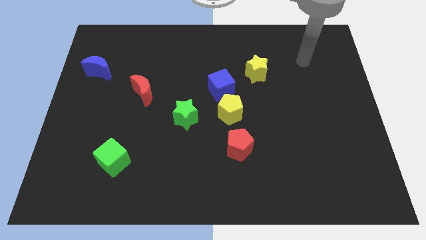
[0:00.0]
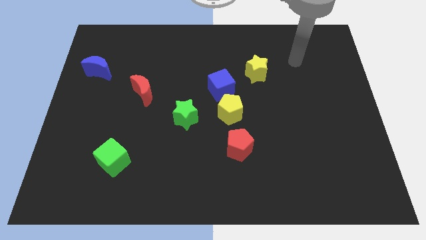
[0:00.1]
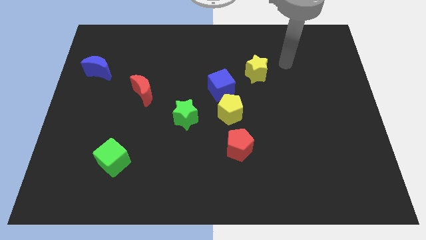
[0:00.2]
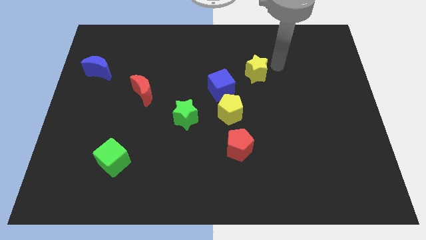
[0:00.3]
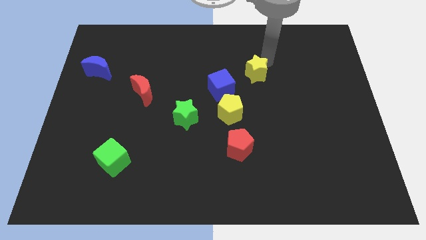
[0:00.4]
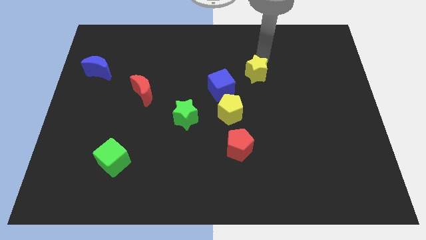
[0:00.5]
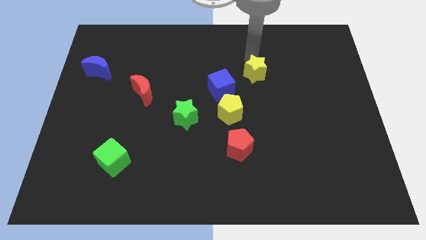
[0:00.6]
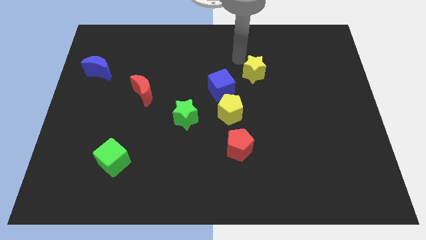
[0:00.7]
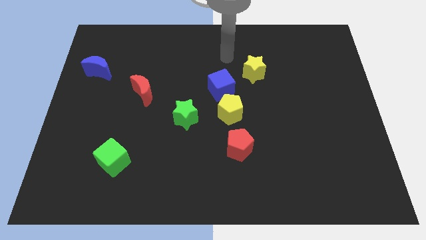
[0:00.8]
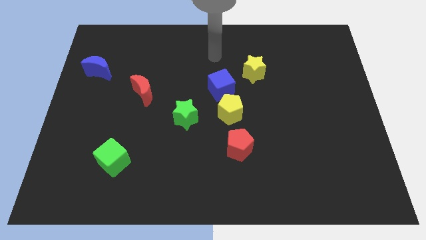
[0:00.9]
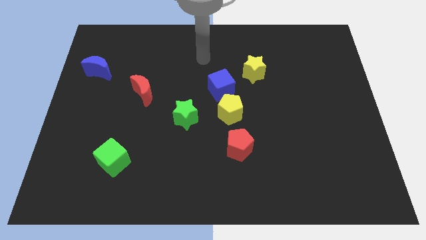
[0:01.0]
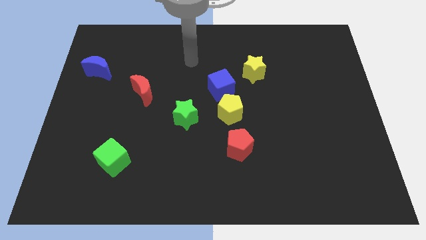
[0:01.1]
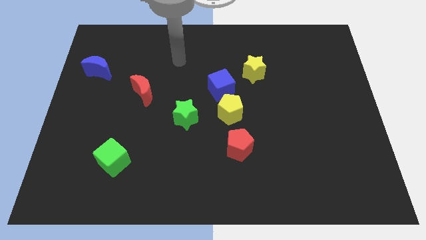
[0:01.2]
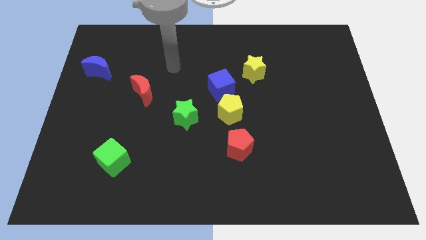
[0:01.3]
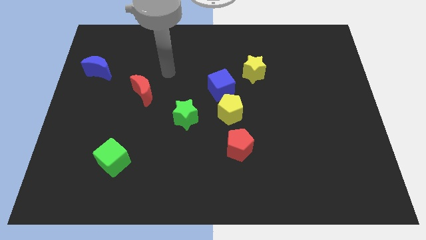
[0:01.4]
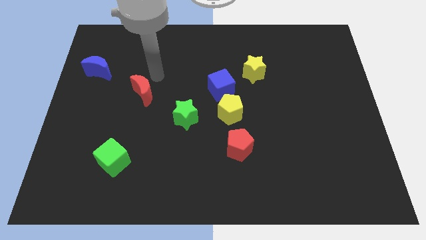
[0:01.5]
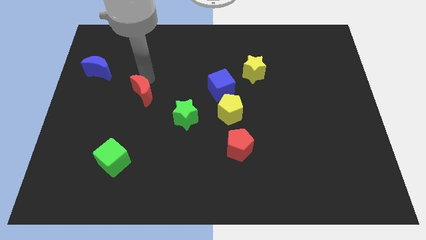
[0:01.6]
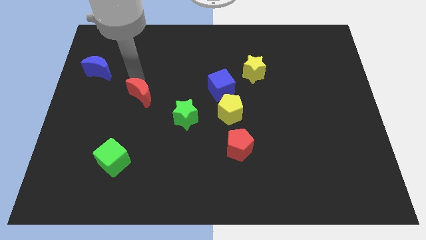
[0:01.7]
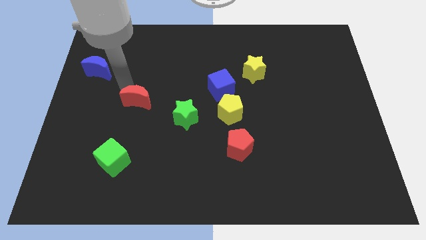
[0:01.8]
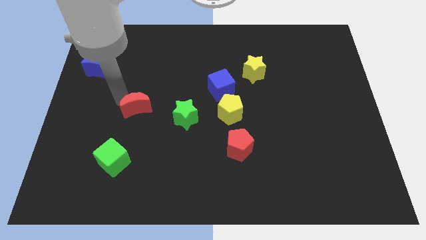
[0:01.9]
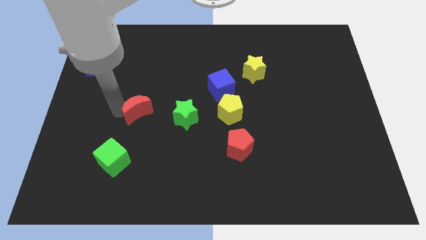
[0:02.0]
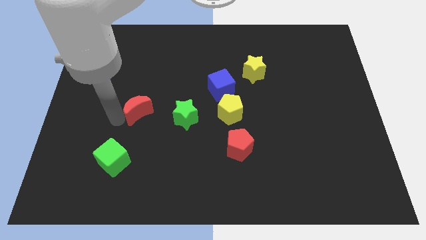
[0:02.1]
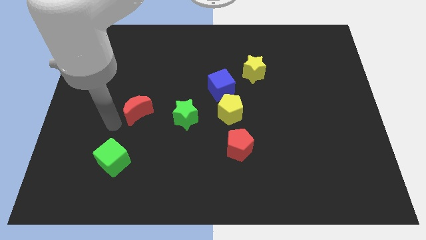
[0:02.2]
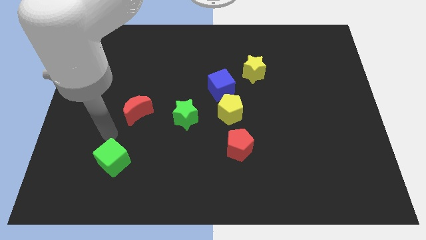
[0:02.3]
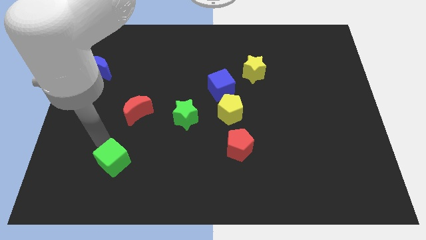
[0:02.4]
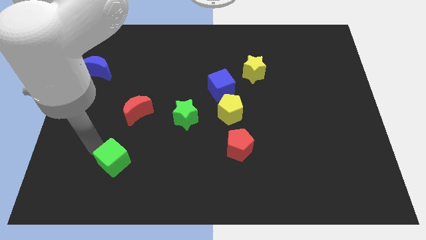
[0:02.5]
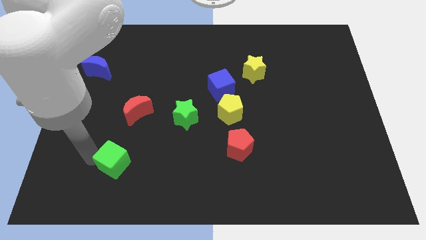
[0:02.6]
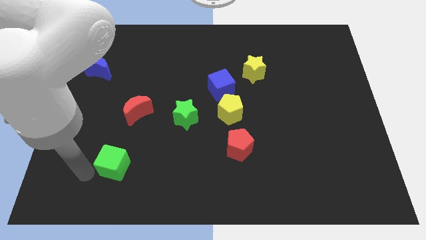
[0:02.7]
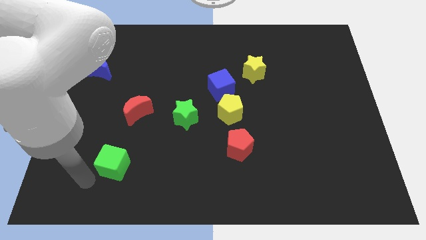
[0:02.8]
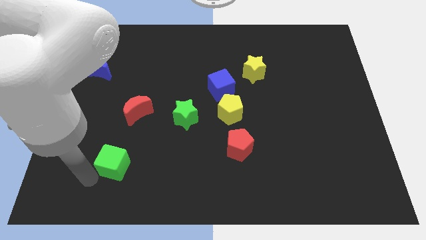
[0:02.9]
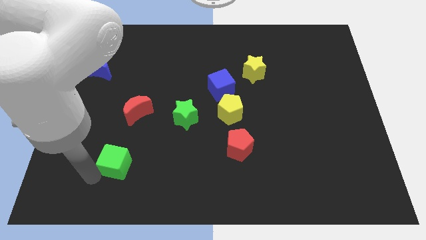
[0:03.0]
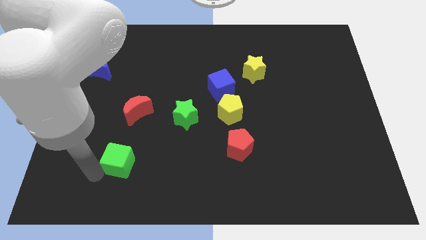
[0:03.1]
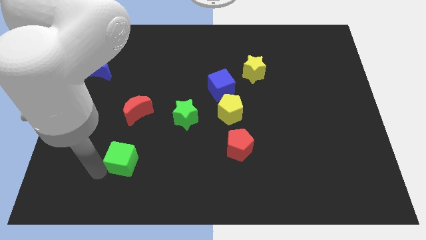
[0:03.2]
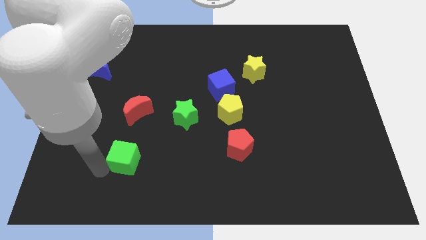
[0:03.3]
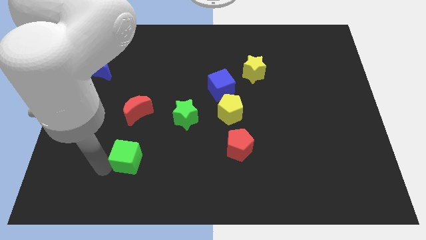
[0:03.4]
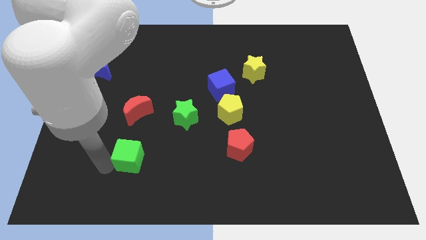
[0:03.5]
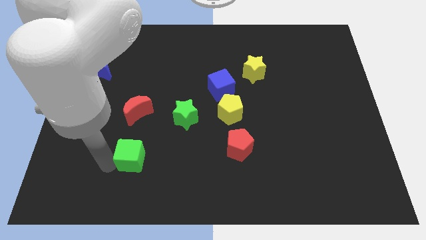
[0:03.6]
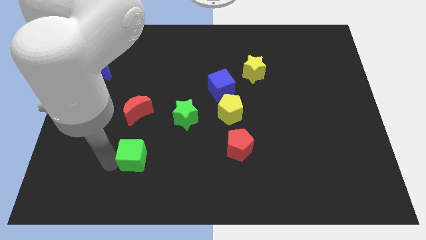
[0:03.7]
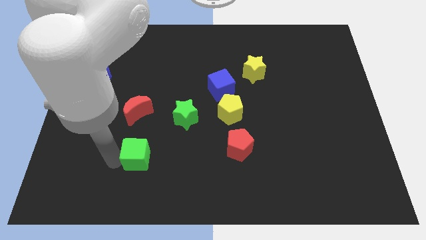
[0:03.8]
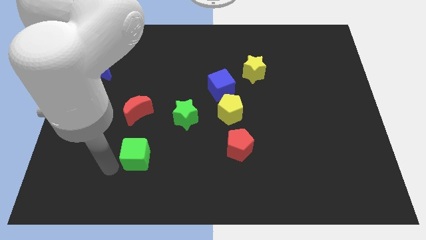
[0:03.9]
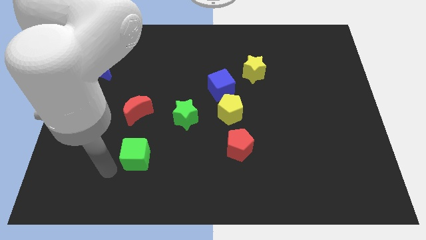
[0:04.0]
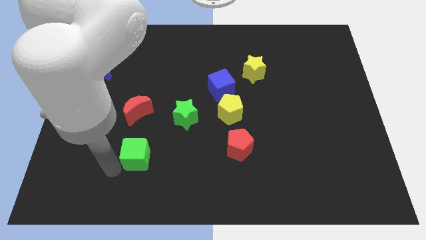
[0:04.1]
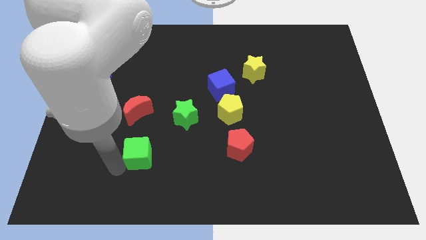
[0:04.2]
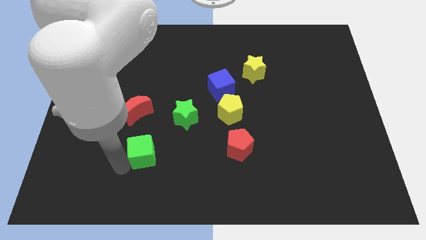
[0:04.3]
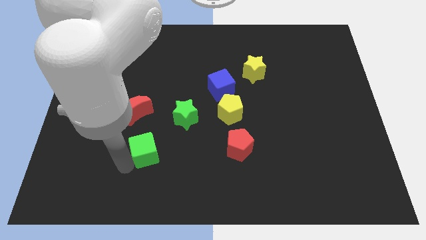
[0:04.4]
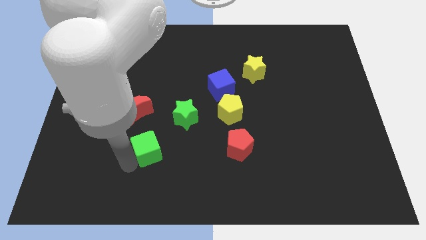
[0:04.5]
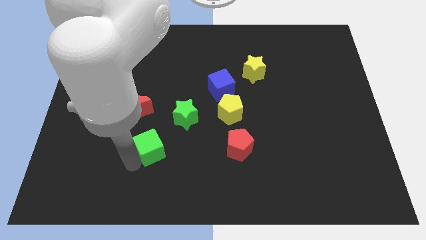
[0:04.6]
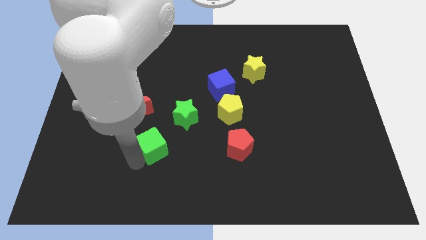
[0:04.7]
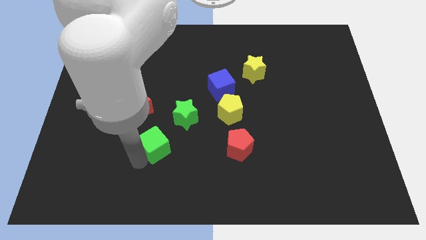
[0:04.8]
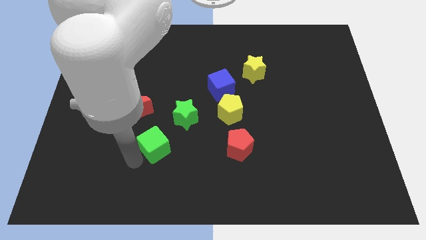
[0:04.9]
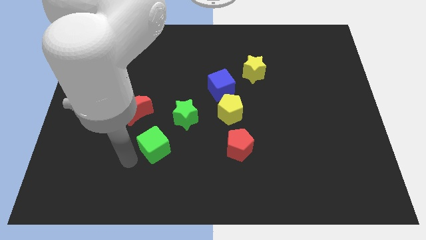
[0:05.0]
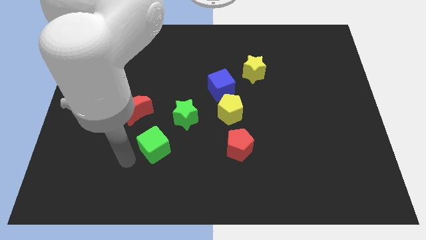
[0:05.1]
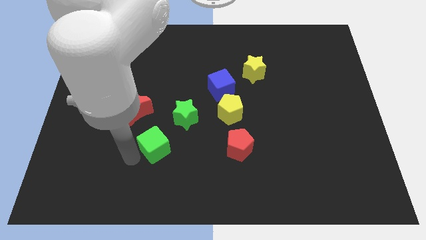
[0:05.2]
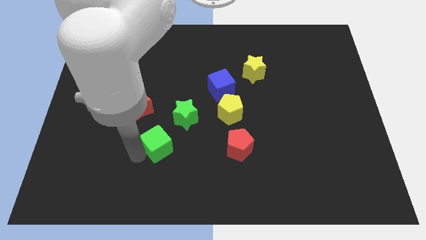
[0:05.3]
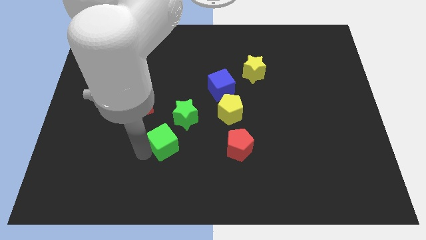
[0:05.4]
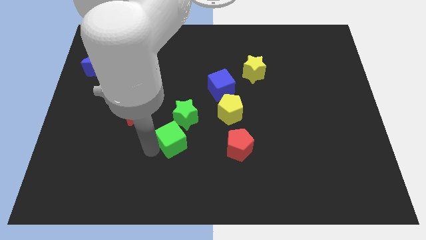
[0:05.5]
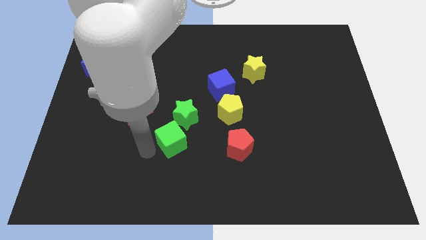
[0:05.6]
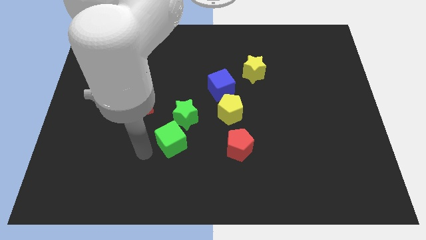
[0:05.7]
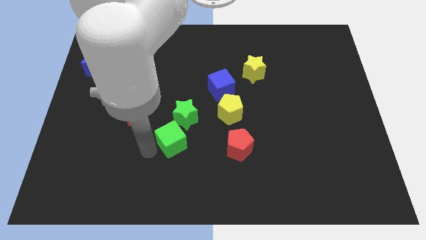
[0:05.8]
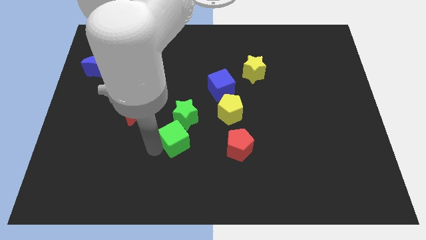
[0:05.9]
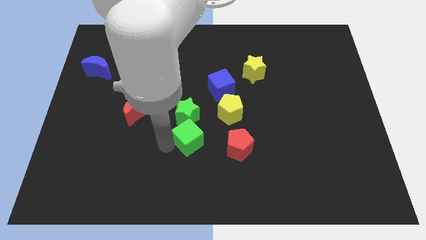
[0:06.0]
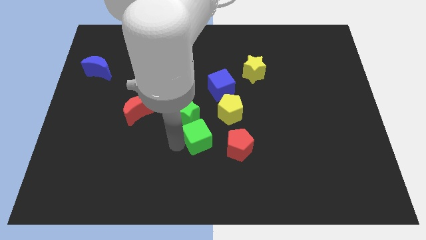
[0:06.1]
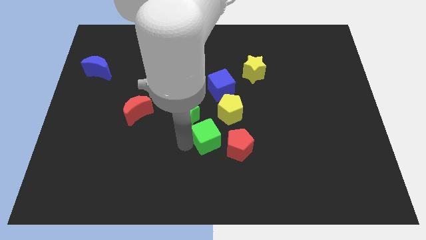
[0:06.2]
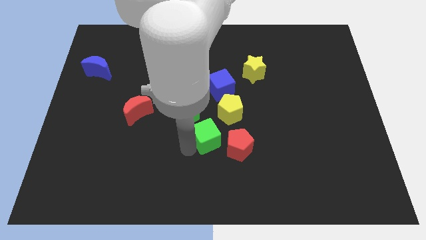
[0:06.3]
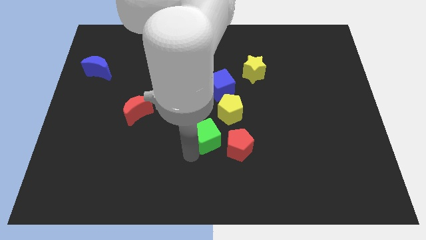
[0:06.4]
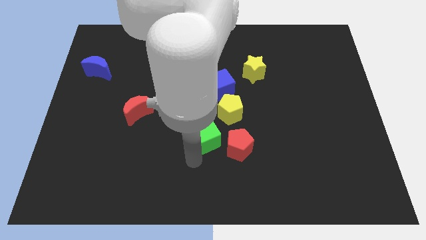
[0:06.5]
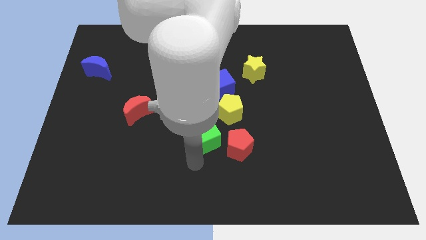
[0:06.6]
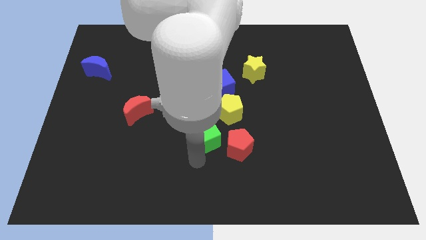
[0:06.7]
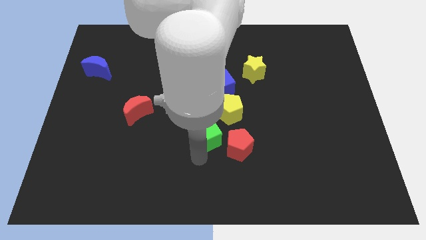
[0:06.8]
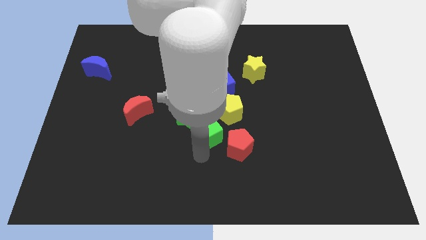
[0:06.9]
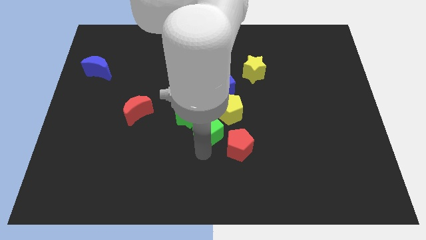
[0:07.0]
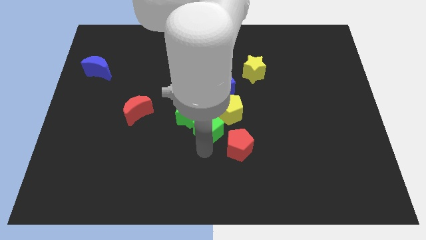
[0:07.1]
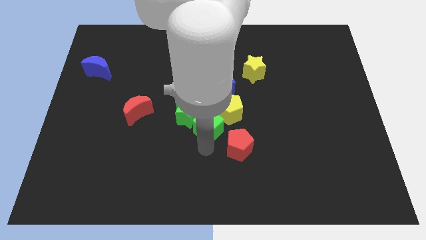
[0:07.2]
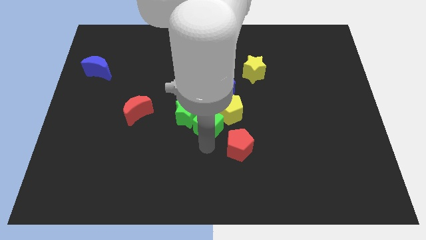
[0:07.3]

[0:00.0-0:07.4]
put the green cube next to the yellow pentagon

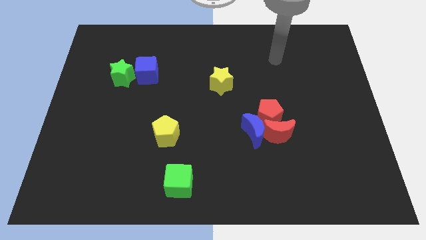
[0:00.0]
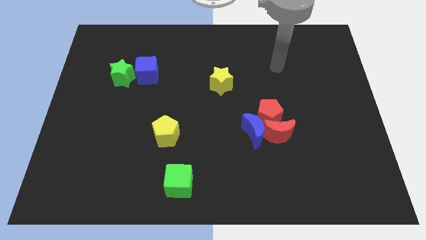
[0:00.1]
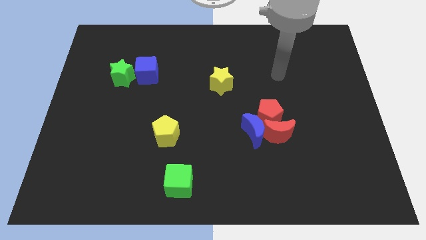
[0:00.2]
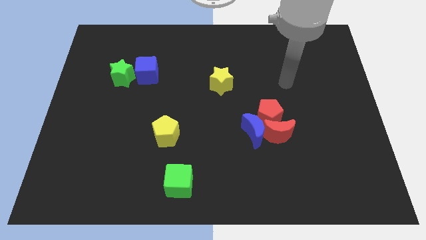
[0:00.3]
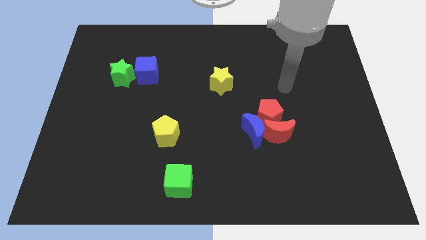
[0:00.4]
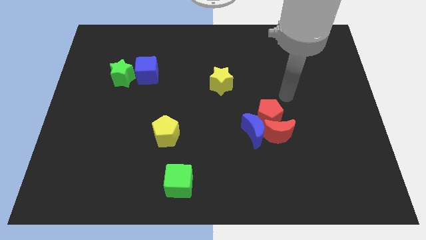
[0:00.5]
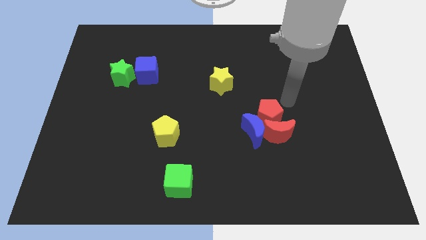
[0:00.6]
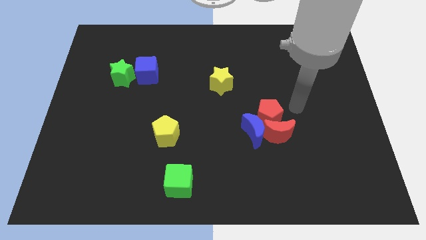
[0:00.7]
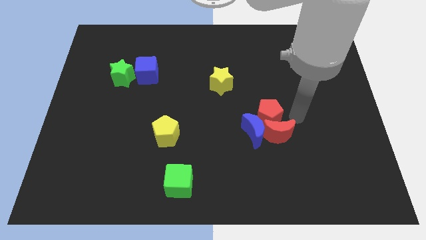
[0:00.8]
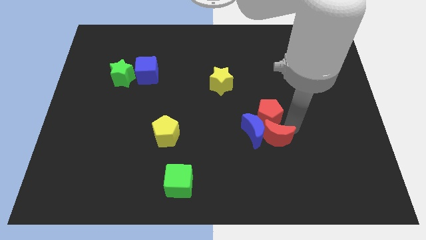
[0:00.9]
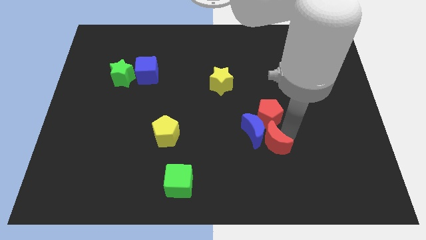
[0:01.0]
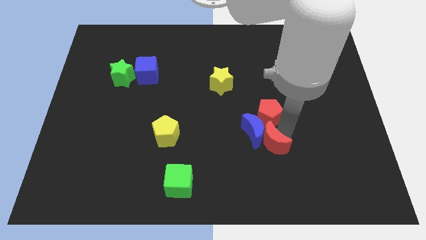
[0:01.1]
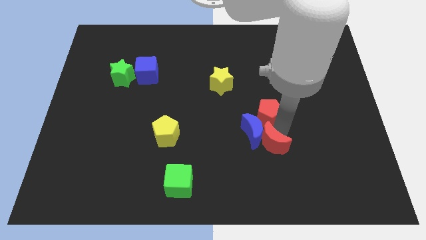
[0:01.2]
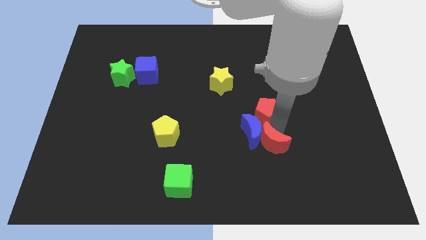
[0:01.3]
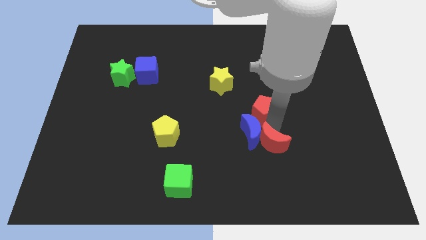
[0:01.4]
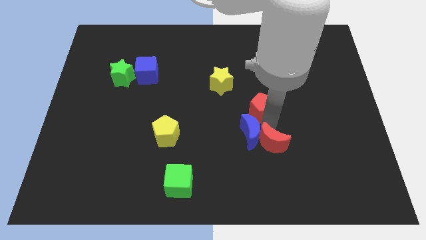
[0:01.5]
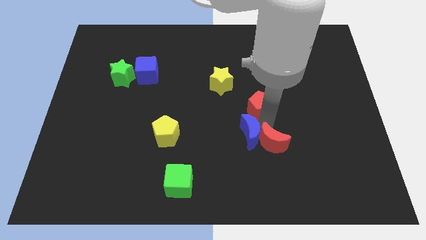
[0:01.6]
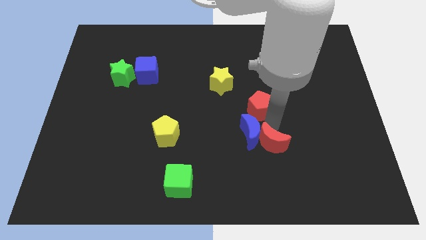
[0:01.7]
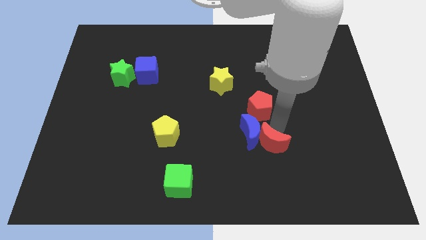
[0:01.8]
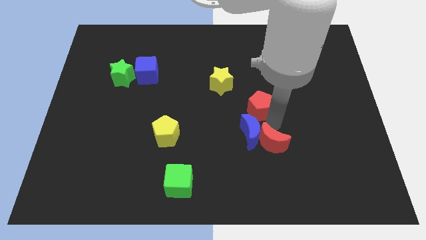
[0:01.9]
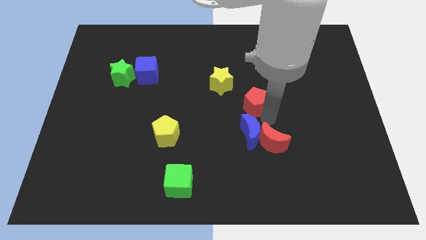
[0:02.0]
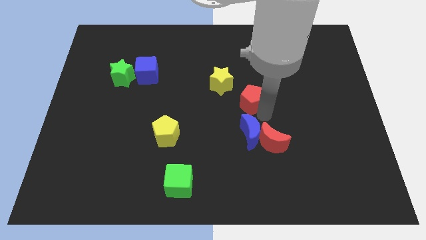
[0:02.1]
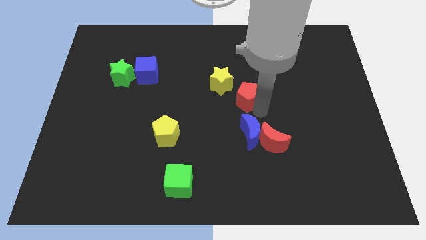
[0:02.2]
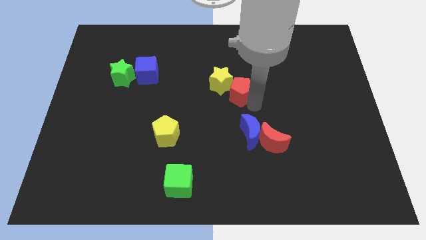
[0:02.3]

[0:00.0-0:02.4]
put the red pentagon next to the yellow star
